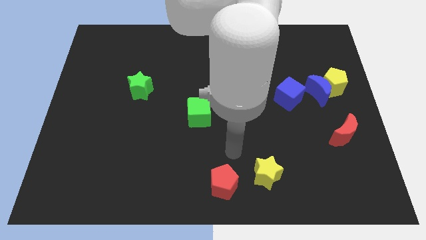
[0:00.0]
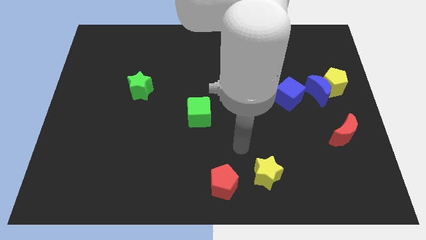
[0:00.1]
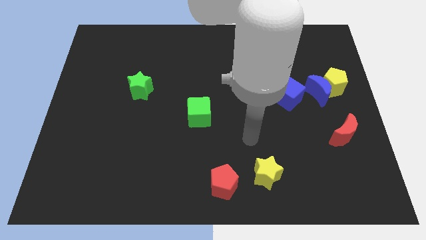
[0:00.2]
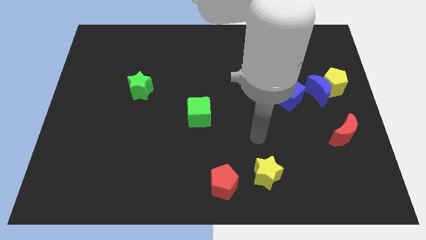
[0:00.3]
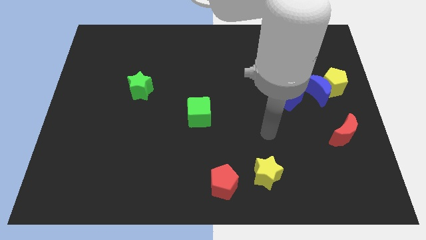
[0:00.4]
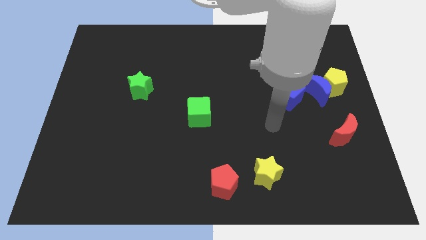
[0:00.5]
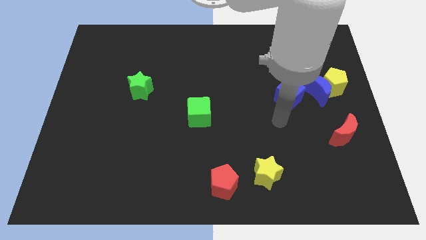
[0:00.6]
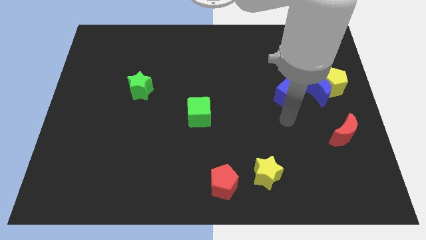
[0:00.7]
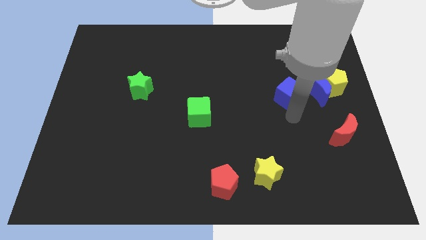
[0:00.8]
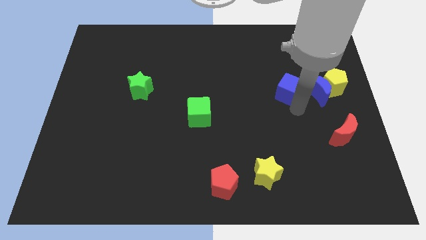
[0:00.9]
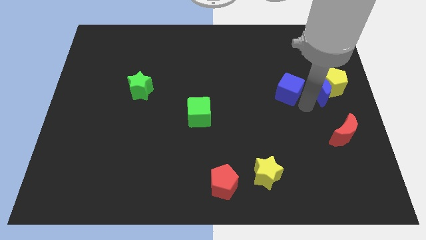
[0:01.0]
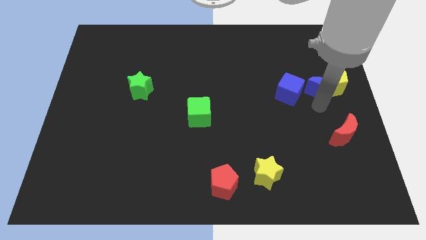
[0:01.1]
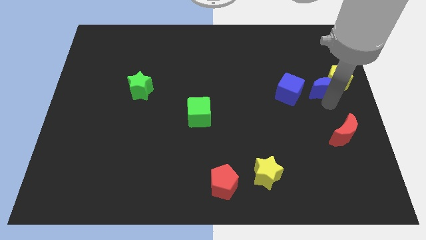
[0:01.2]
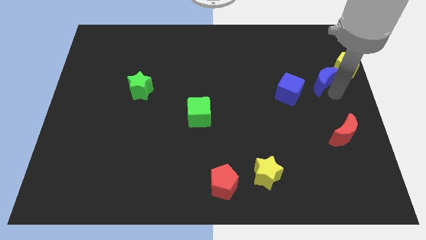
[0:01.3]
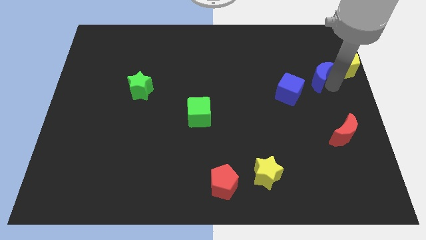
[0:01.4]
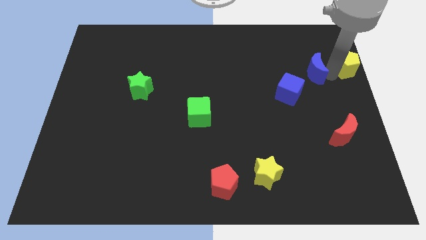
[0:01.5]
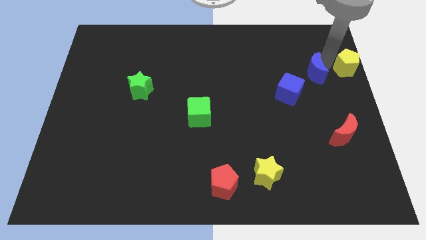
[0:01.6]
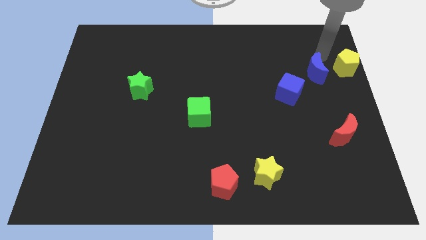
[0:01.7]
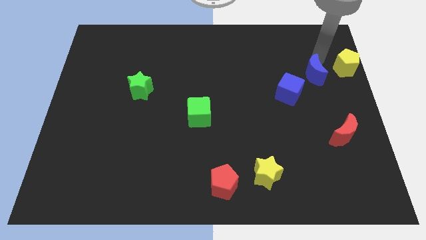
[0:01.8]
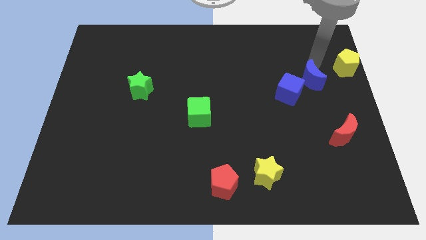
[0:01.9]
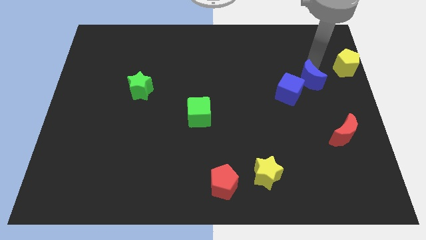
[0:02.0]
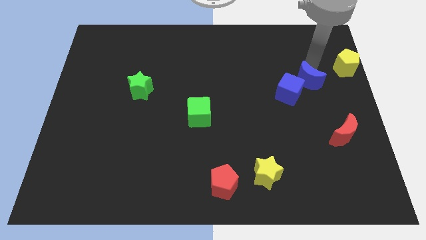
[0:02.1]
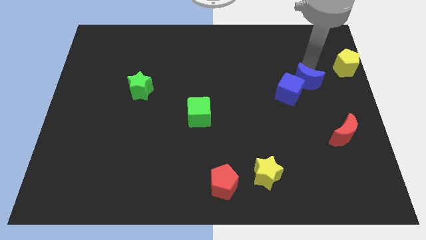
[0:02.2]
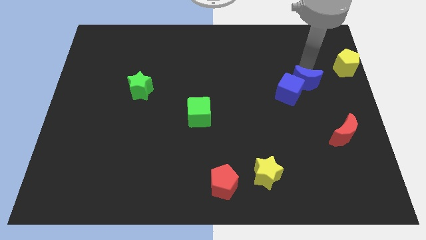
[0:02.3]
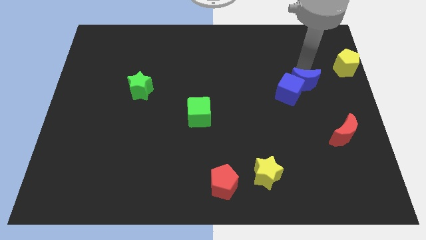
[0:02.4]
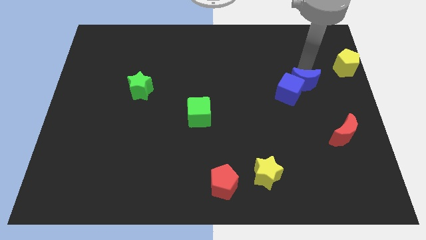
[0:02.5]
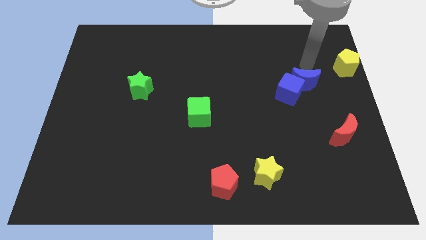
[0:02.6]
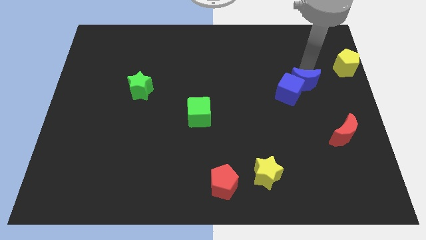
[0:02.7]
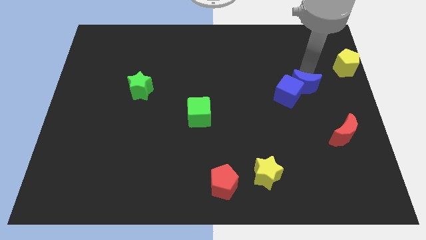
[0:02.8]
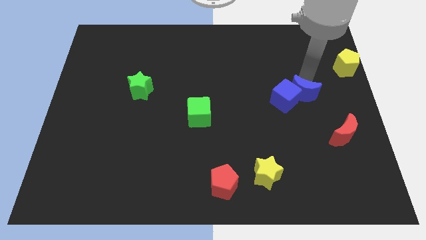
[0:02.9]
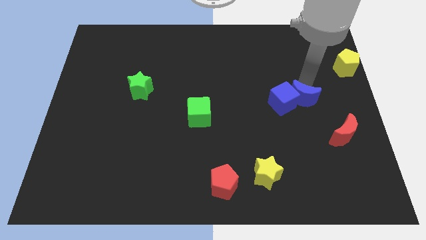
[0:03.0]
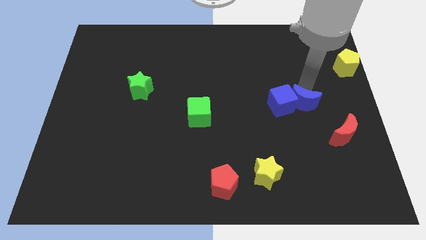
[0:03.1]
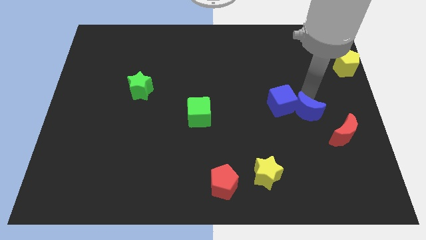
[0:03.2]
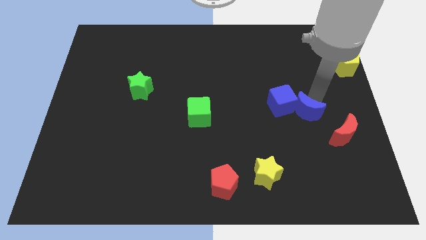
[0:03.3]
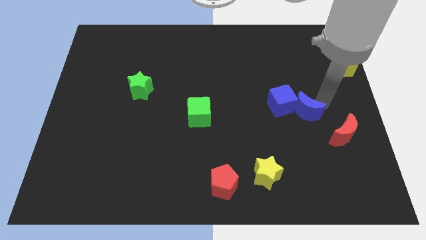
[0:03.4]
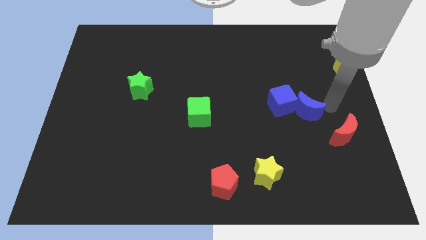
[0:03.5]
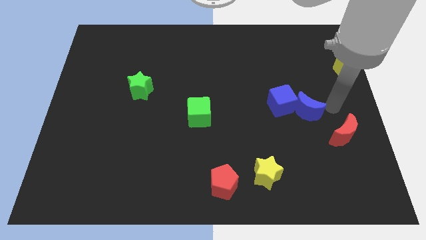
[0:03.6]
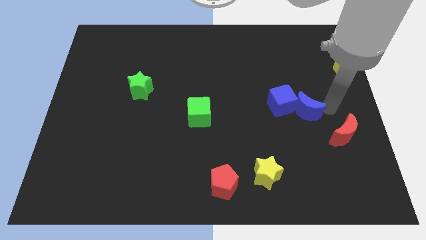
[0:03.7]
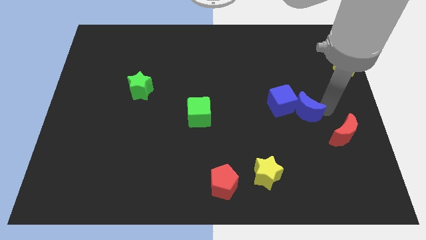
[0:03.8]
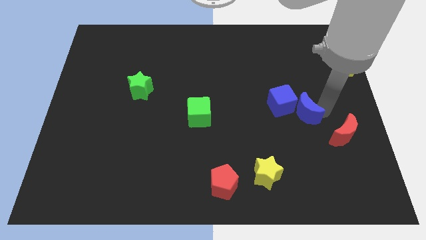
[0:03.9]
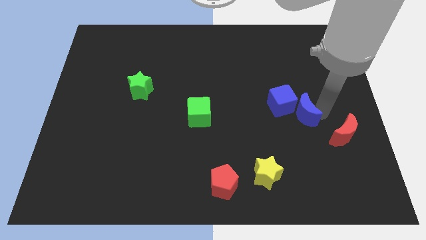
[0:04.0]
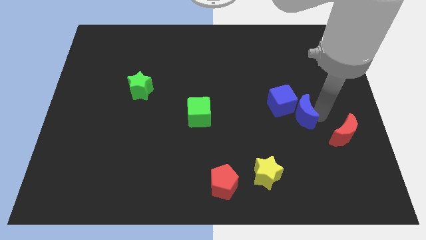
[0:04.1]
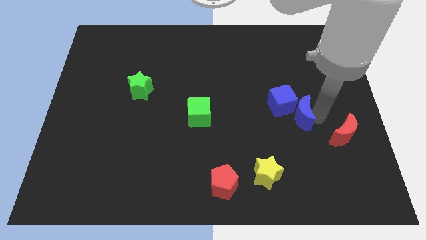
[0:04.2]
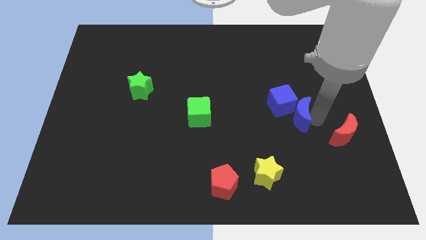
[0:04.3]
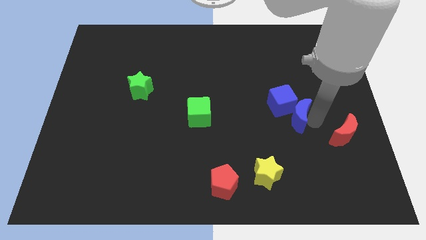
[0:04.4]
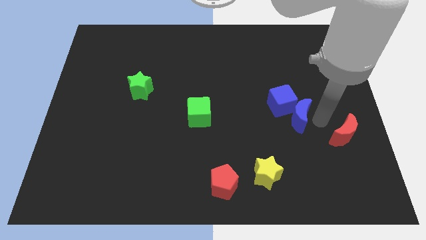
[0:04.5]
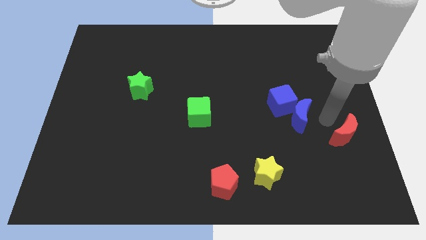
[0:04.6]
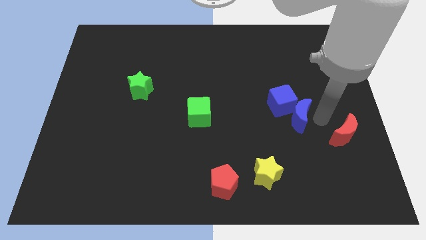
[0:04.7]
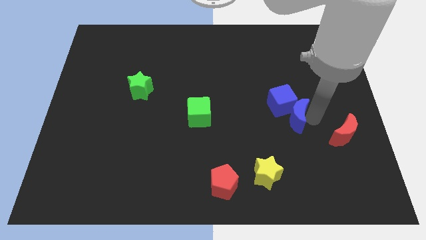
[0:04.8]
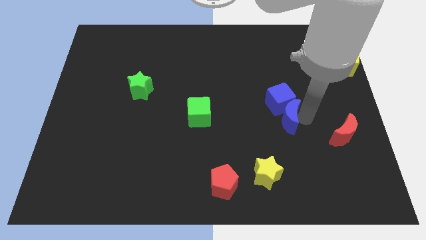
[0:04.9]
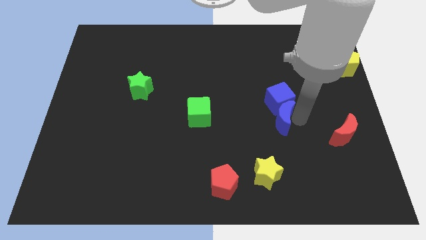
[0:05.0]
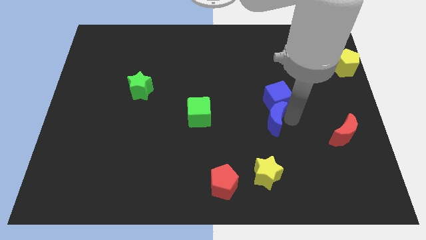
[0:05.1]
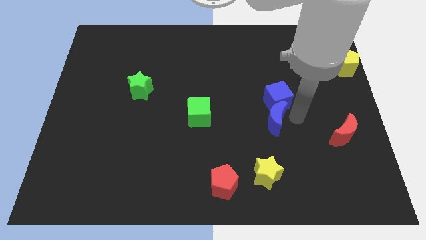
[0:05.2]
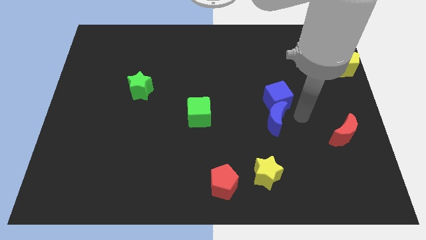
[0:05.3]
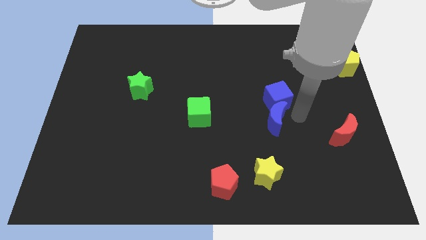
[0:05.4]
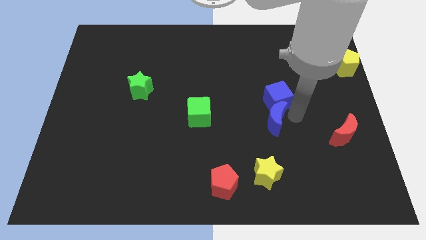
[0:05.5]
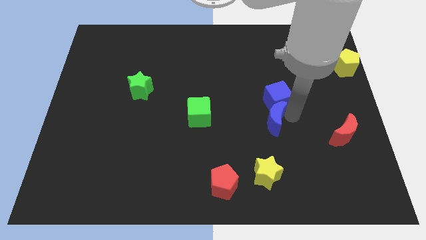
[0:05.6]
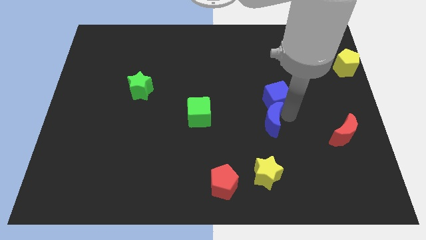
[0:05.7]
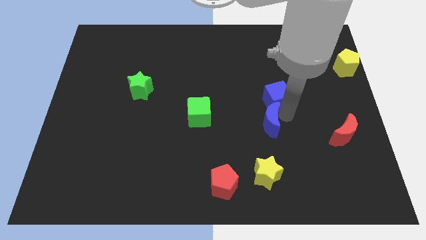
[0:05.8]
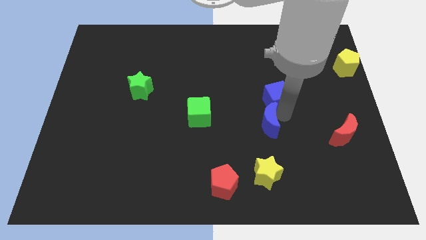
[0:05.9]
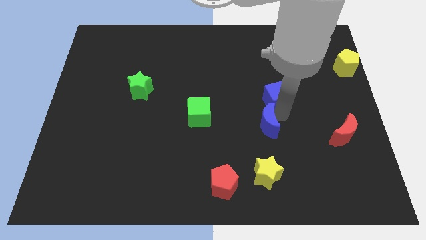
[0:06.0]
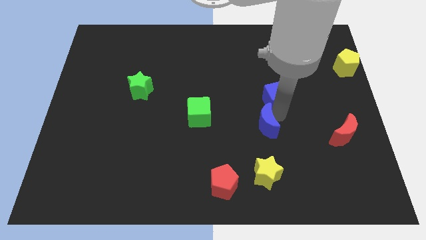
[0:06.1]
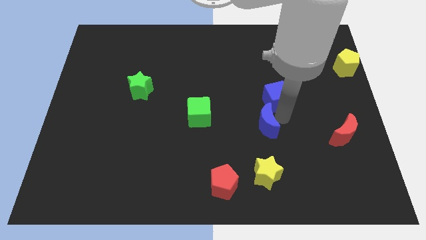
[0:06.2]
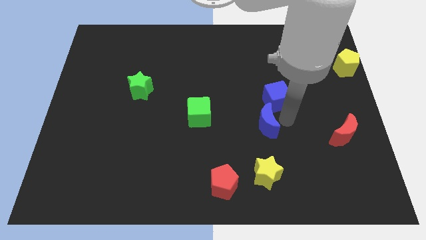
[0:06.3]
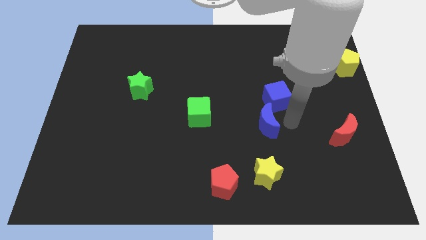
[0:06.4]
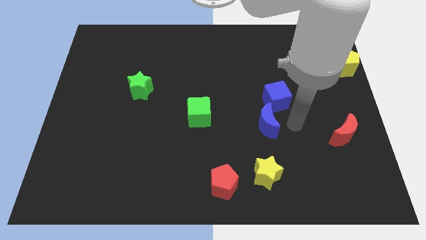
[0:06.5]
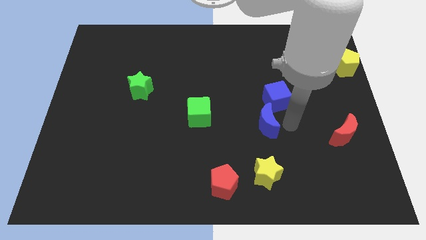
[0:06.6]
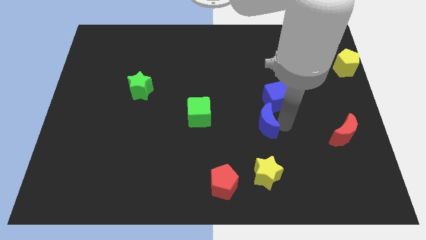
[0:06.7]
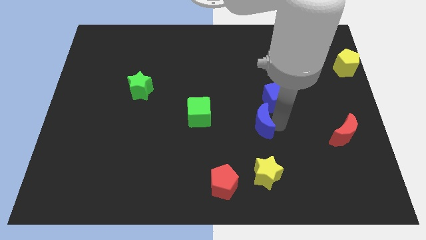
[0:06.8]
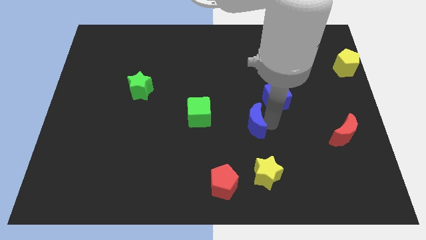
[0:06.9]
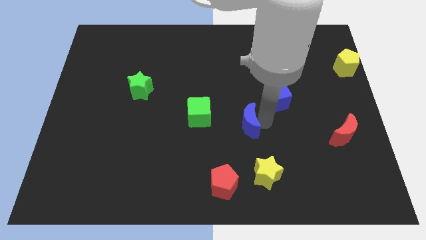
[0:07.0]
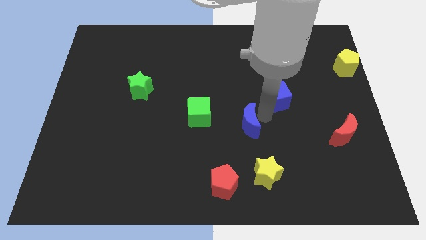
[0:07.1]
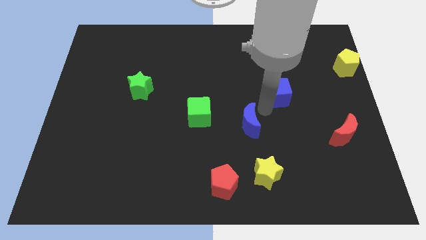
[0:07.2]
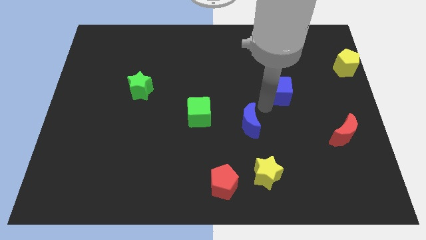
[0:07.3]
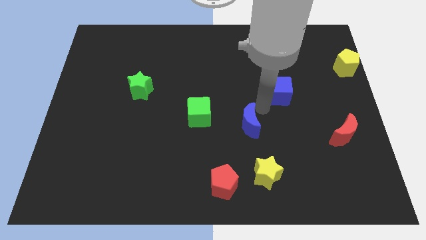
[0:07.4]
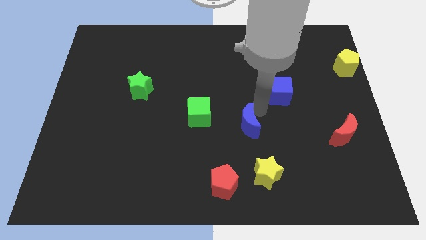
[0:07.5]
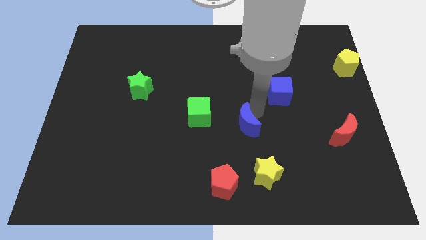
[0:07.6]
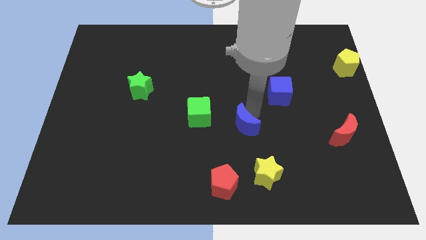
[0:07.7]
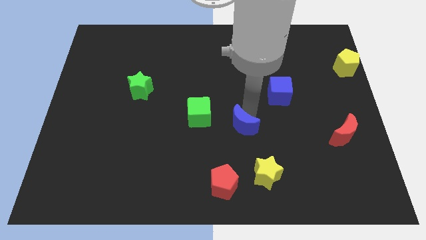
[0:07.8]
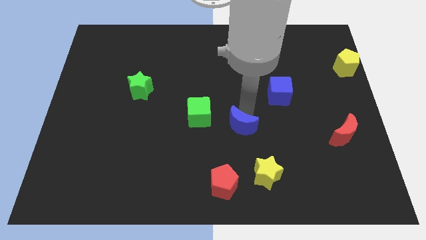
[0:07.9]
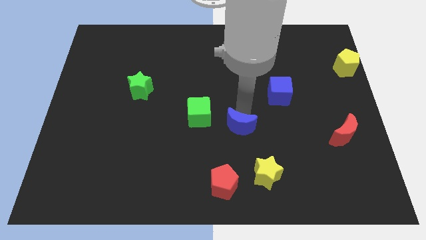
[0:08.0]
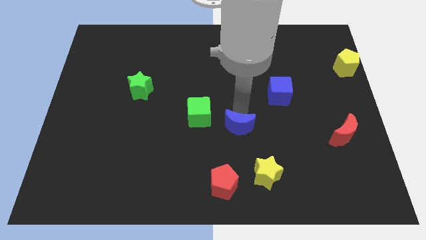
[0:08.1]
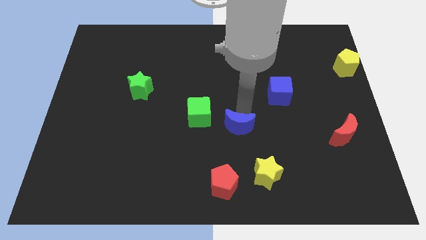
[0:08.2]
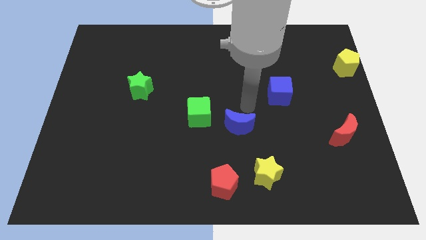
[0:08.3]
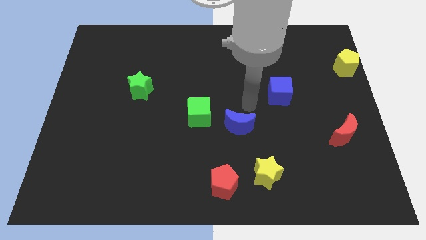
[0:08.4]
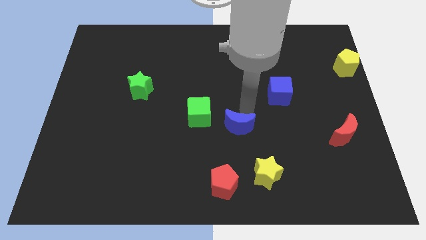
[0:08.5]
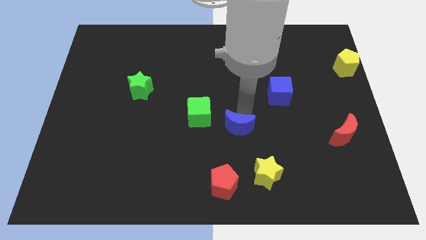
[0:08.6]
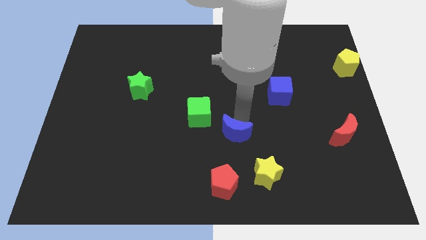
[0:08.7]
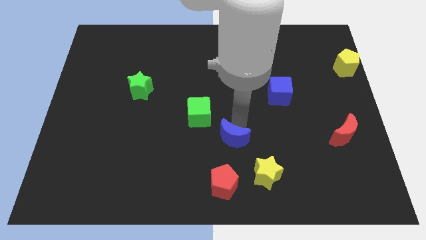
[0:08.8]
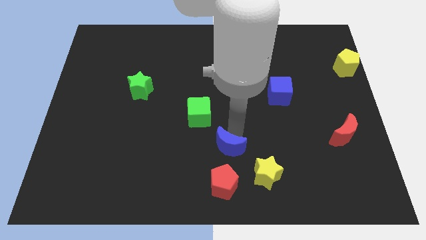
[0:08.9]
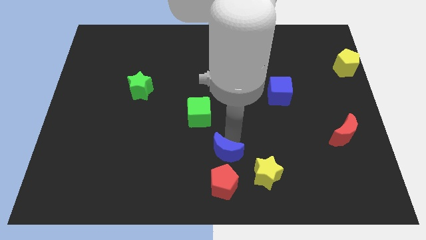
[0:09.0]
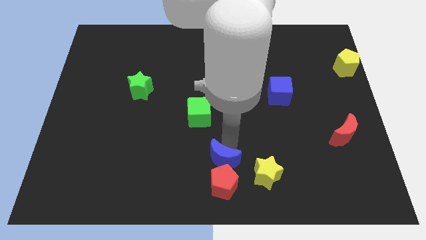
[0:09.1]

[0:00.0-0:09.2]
put the blue moon to the left of the yellow star
